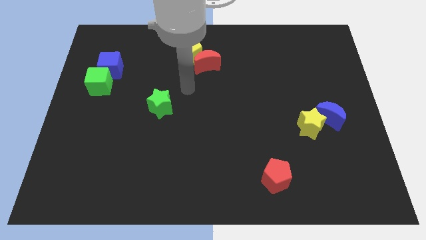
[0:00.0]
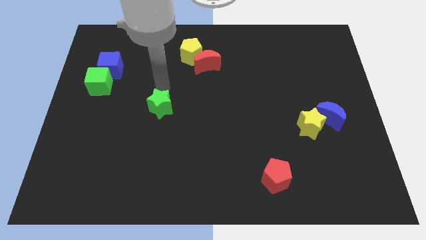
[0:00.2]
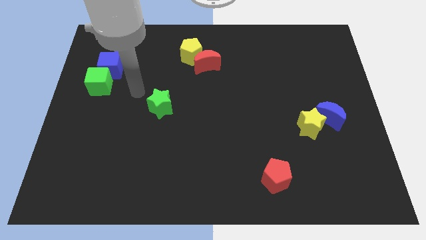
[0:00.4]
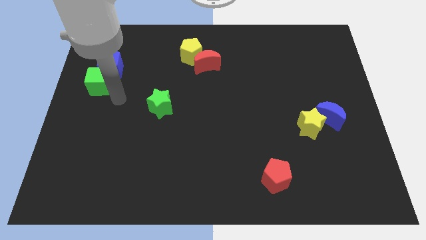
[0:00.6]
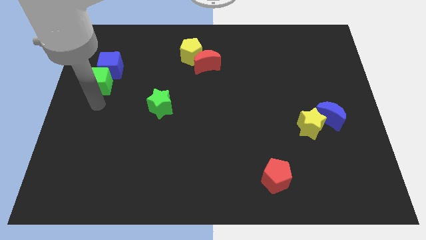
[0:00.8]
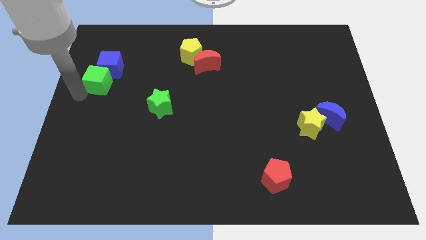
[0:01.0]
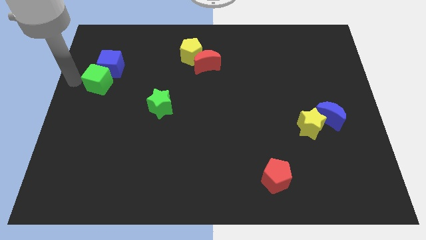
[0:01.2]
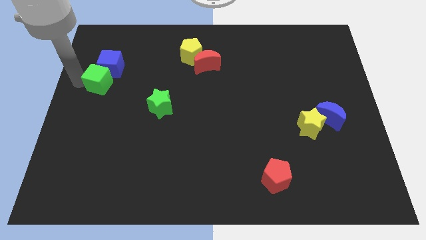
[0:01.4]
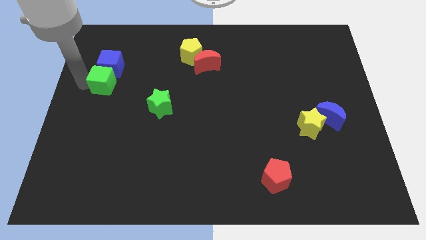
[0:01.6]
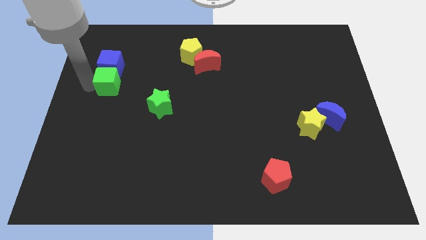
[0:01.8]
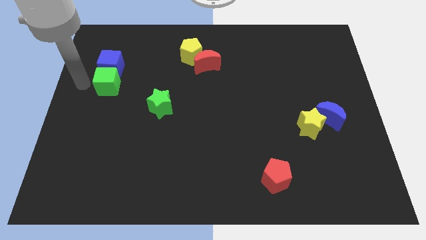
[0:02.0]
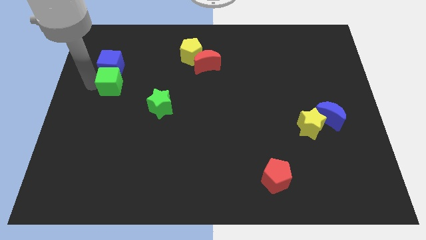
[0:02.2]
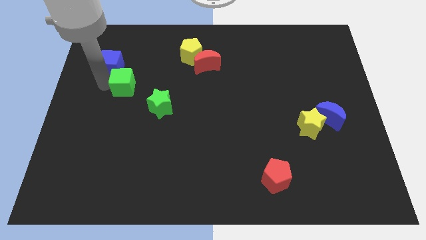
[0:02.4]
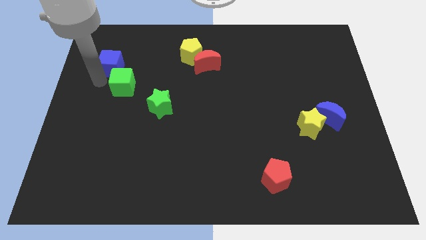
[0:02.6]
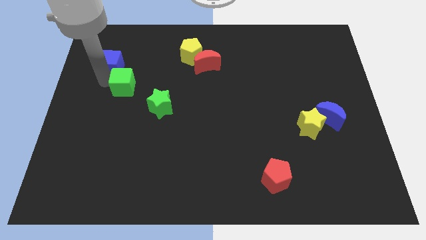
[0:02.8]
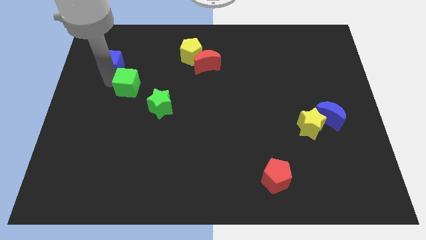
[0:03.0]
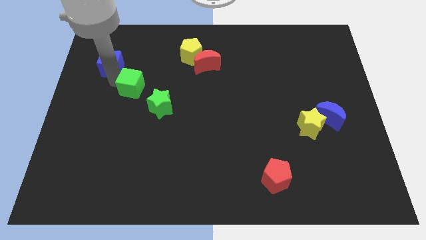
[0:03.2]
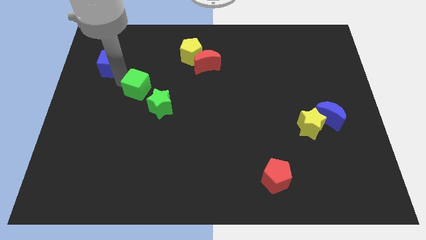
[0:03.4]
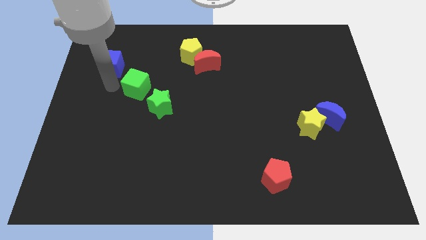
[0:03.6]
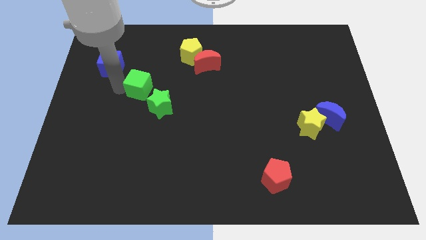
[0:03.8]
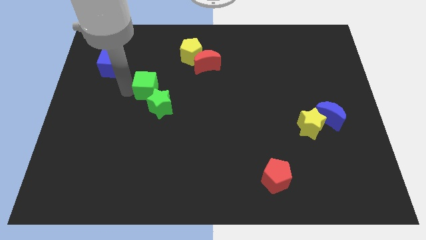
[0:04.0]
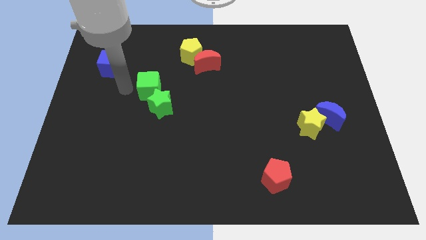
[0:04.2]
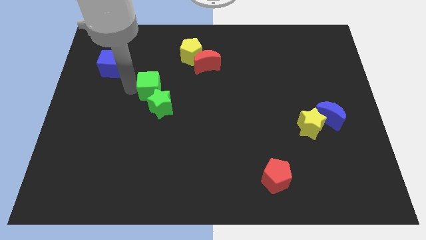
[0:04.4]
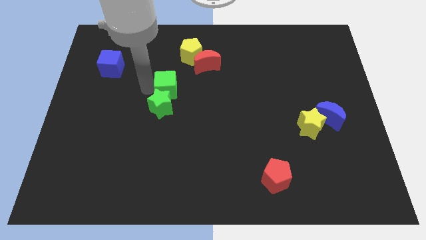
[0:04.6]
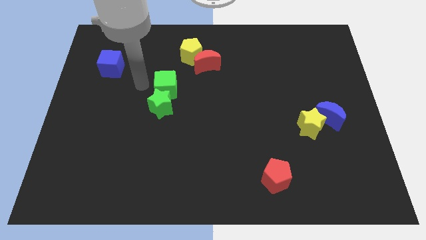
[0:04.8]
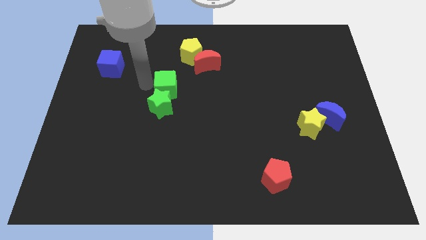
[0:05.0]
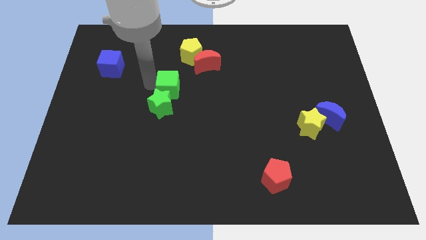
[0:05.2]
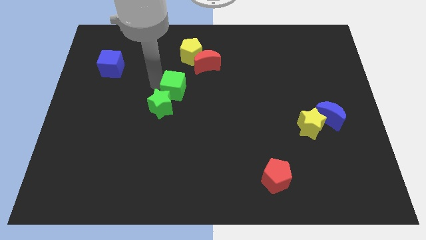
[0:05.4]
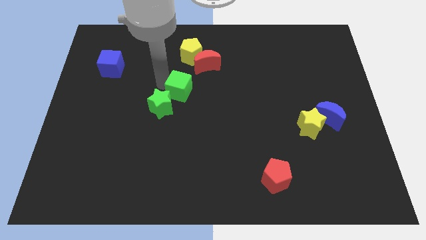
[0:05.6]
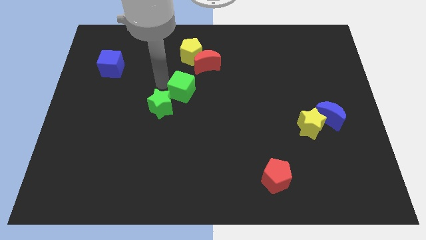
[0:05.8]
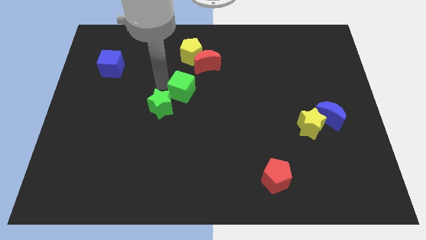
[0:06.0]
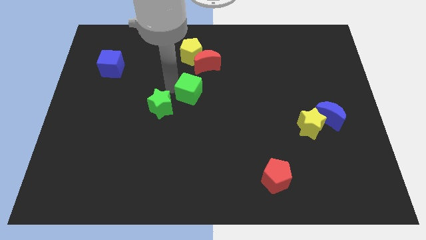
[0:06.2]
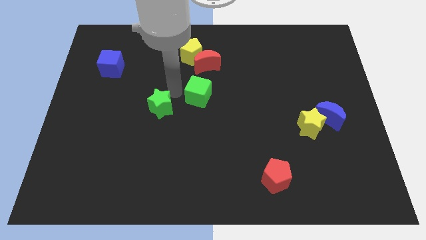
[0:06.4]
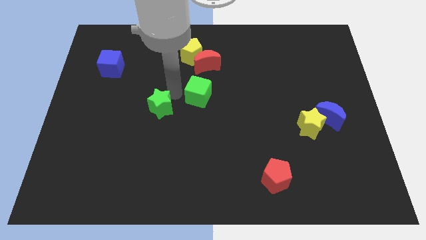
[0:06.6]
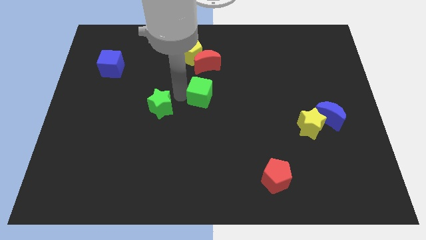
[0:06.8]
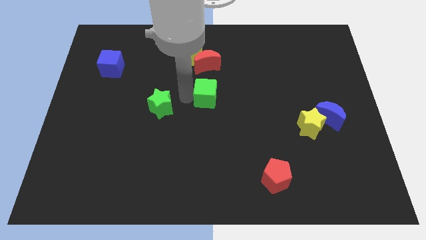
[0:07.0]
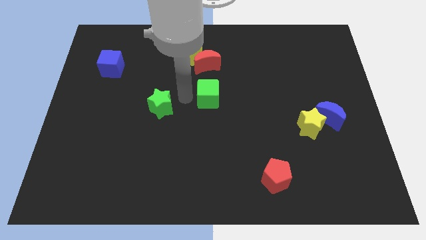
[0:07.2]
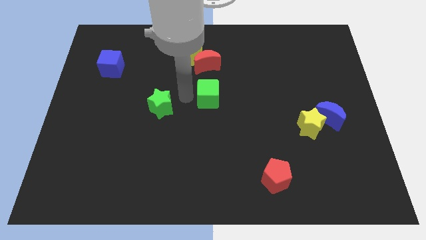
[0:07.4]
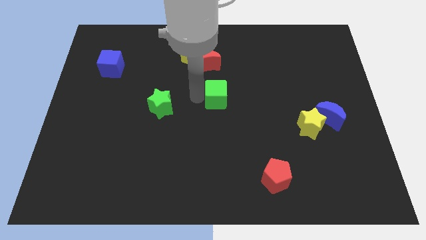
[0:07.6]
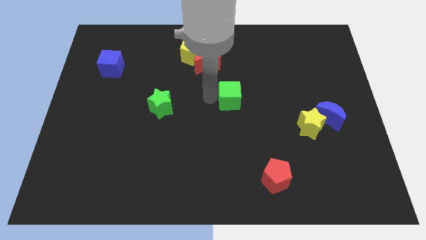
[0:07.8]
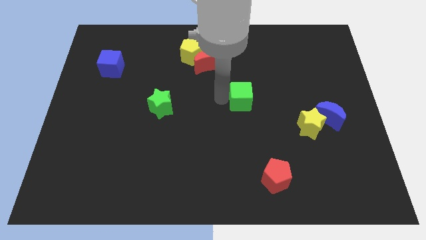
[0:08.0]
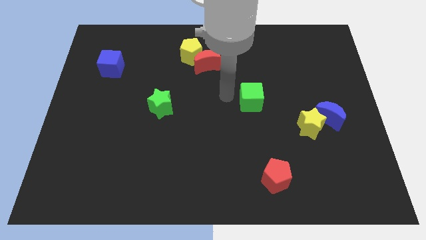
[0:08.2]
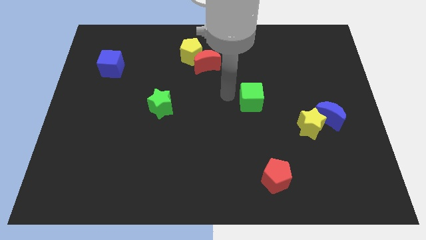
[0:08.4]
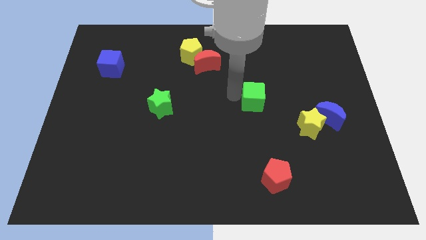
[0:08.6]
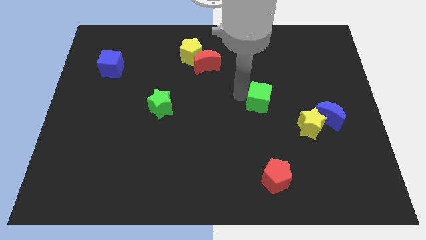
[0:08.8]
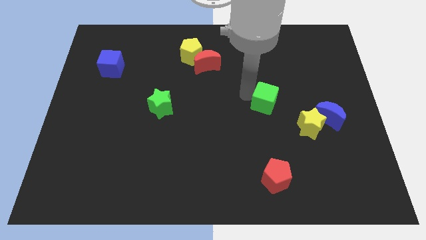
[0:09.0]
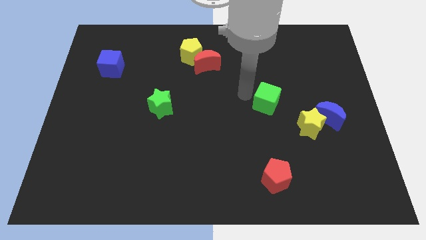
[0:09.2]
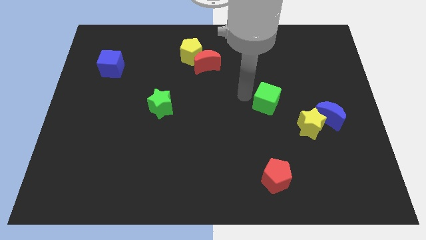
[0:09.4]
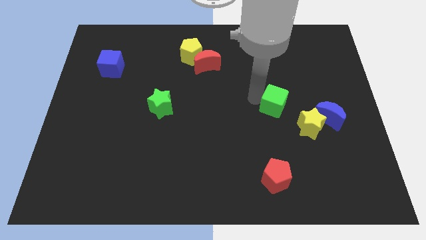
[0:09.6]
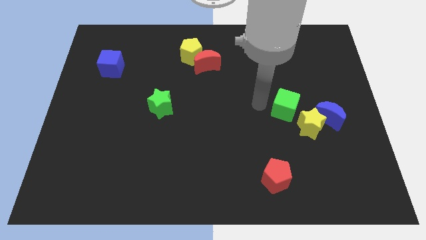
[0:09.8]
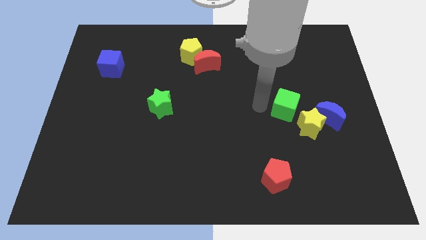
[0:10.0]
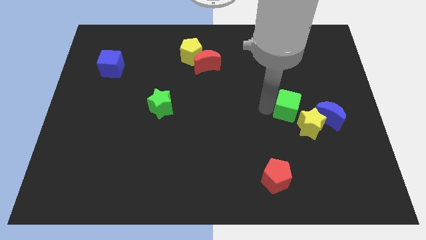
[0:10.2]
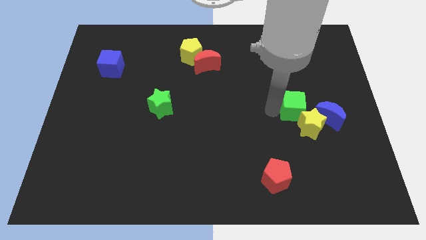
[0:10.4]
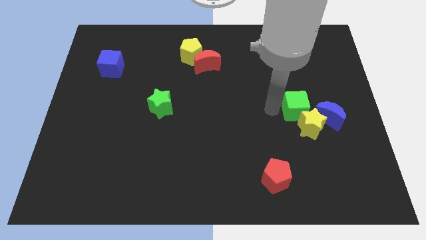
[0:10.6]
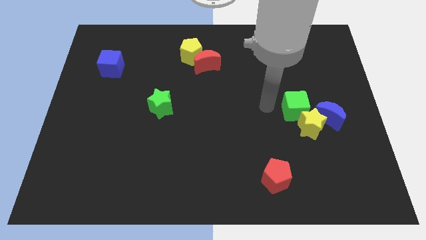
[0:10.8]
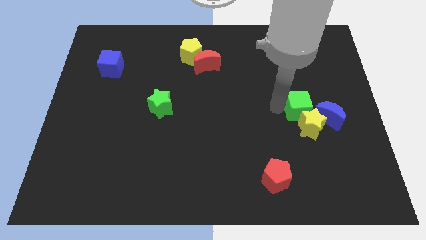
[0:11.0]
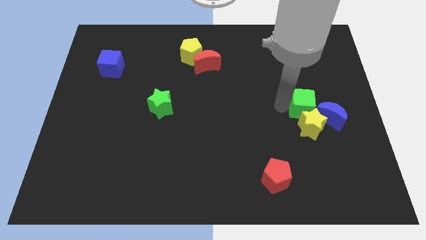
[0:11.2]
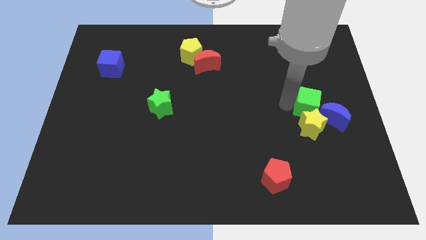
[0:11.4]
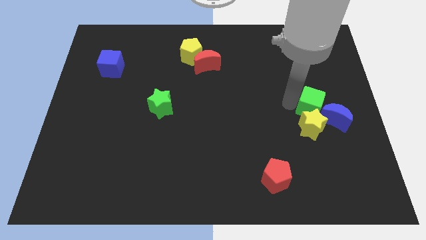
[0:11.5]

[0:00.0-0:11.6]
move the green cube close to the blue moon

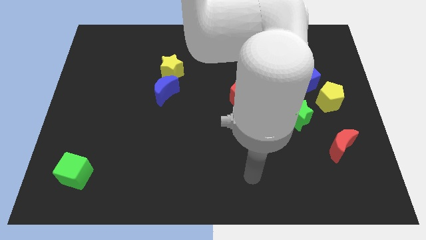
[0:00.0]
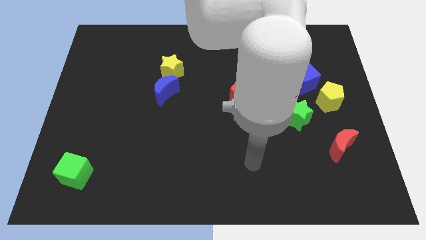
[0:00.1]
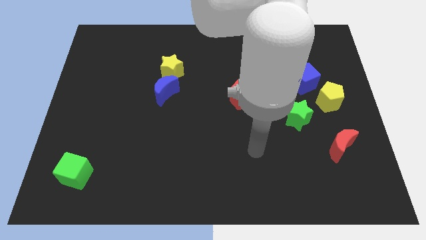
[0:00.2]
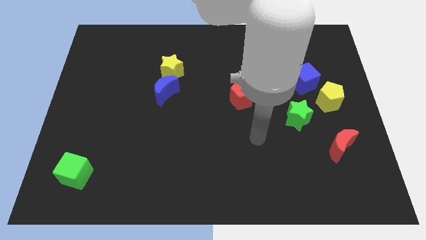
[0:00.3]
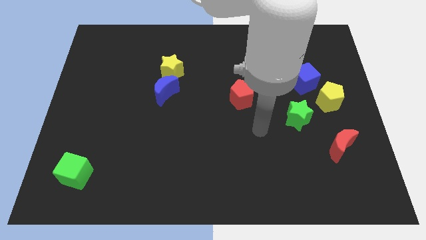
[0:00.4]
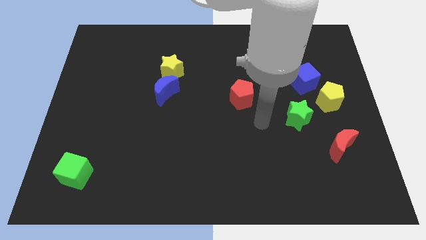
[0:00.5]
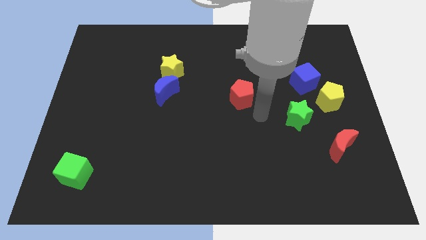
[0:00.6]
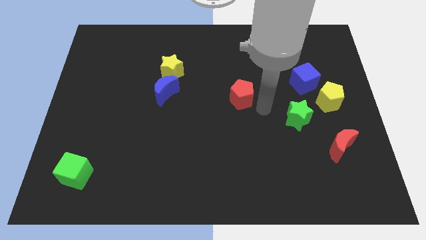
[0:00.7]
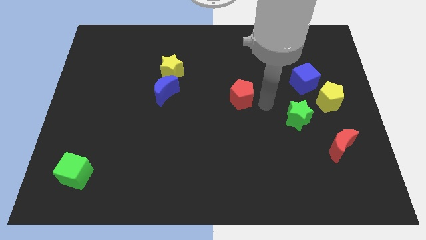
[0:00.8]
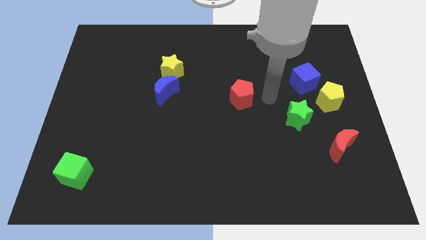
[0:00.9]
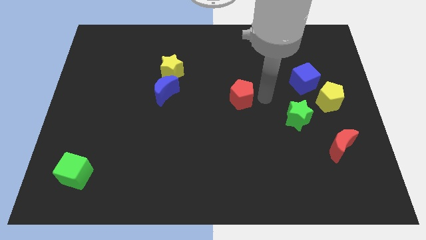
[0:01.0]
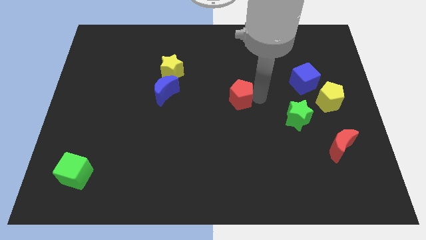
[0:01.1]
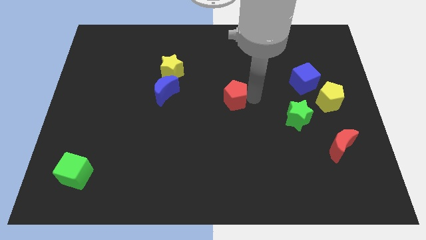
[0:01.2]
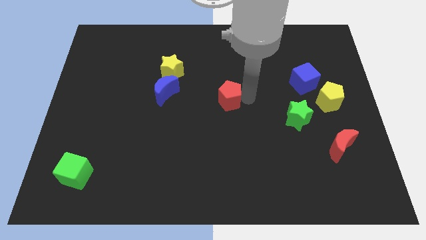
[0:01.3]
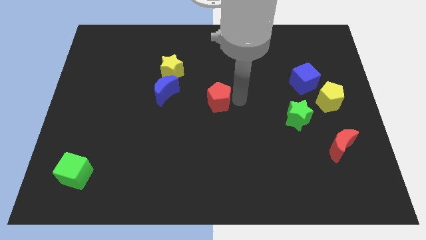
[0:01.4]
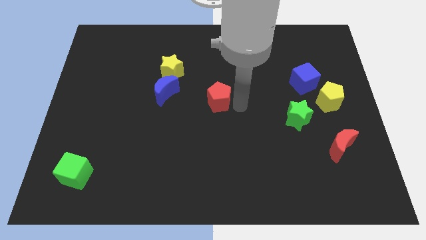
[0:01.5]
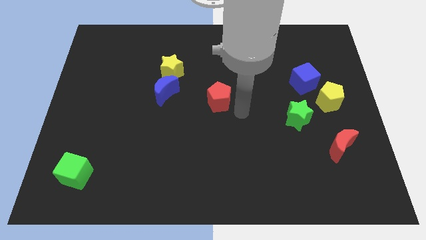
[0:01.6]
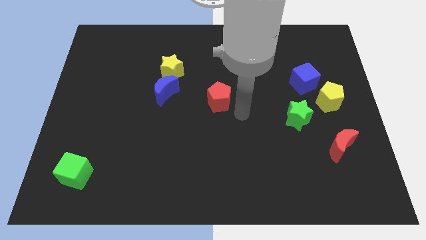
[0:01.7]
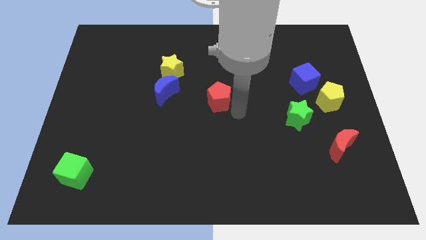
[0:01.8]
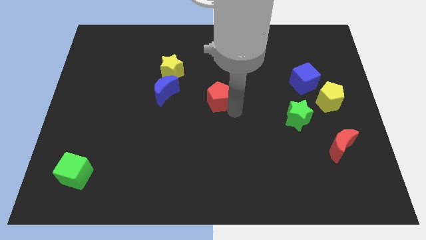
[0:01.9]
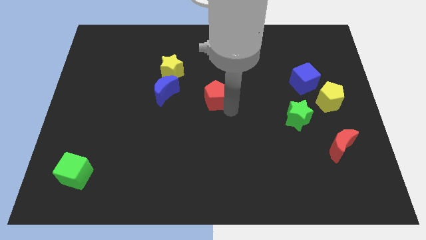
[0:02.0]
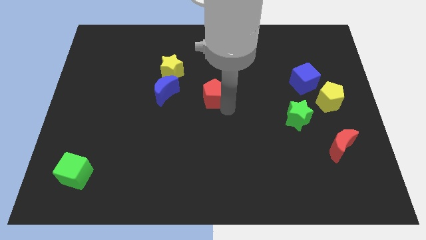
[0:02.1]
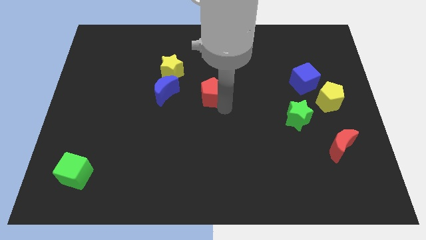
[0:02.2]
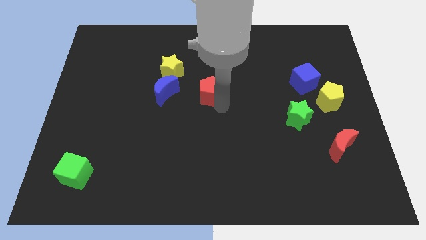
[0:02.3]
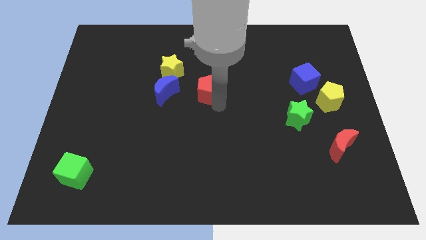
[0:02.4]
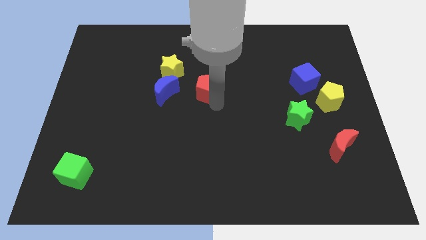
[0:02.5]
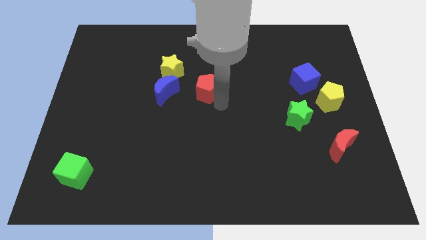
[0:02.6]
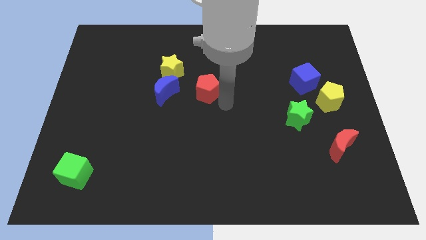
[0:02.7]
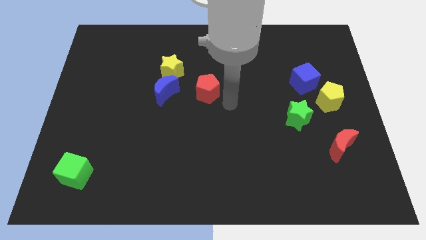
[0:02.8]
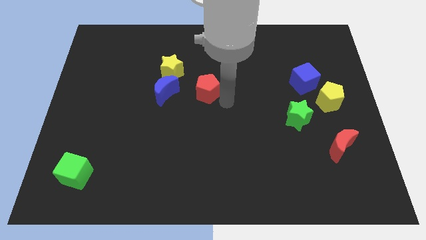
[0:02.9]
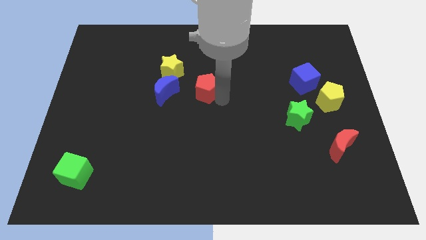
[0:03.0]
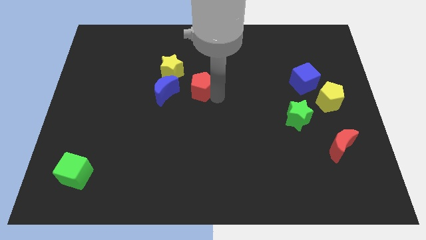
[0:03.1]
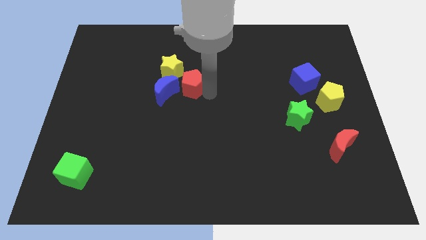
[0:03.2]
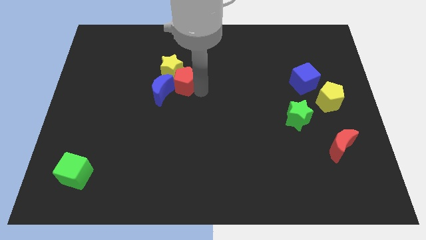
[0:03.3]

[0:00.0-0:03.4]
push the red pentagon towards the yellow star
